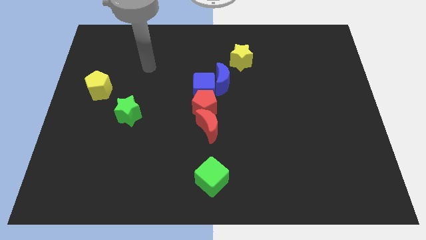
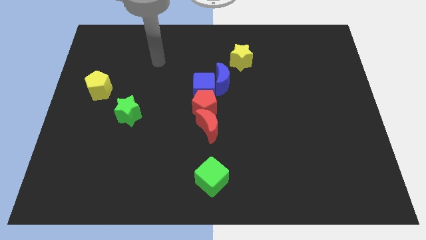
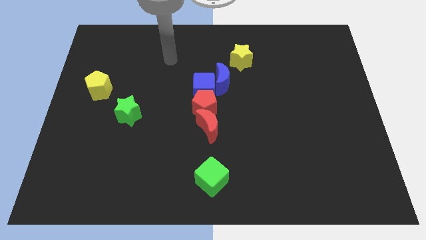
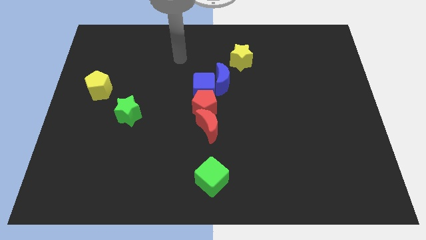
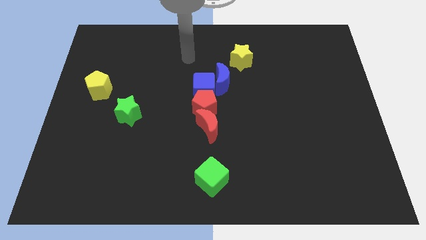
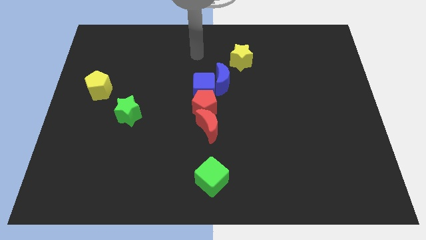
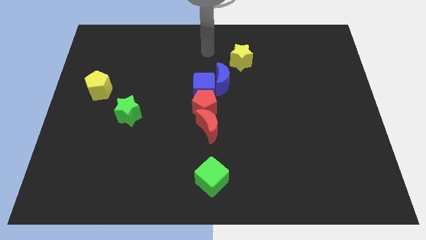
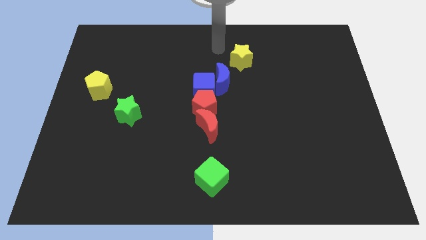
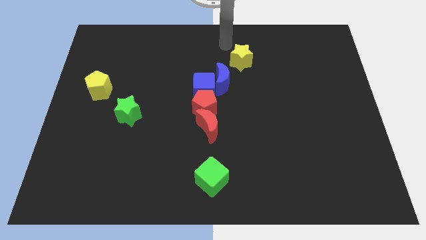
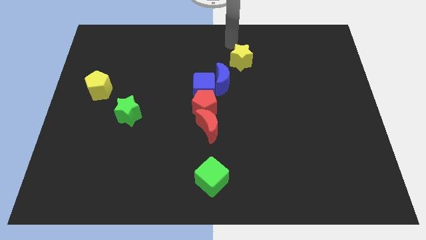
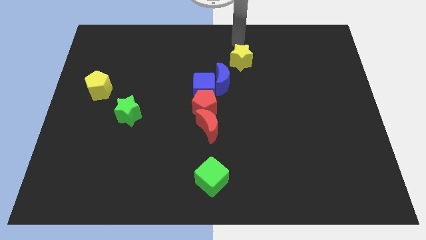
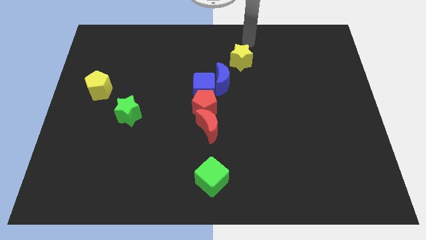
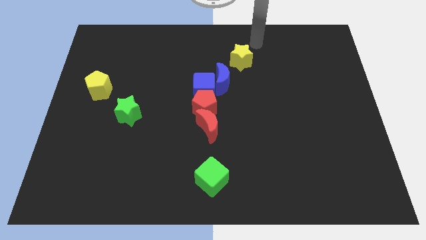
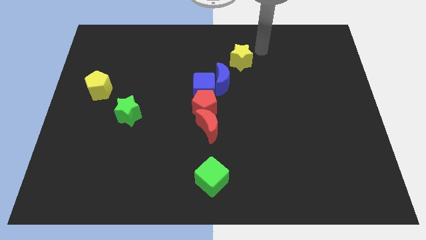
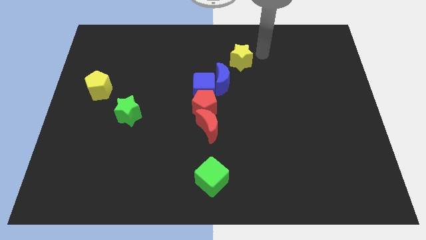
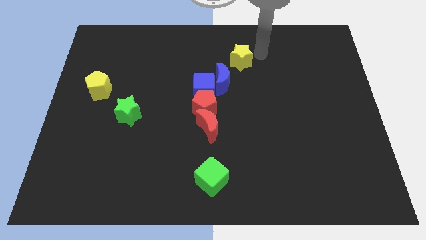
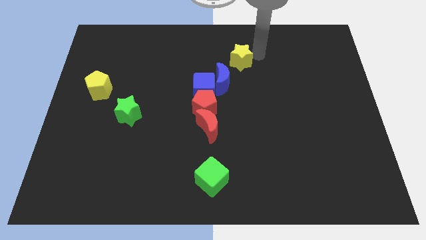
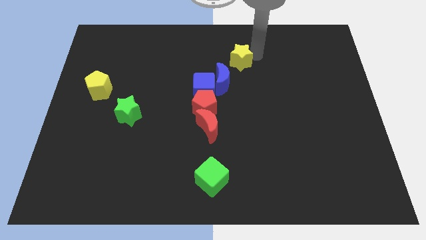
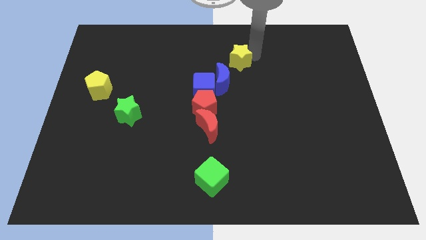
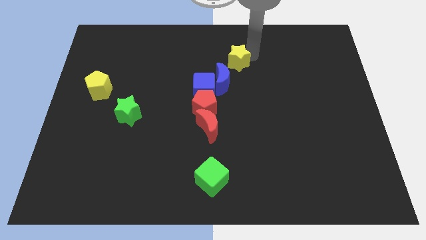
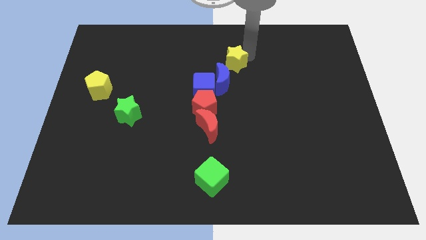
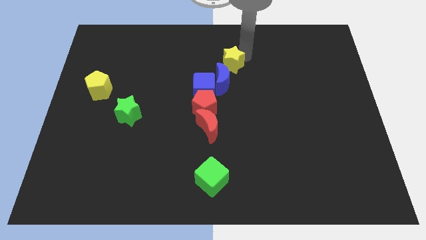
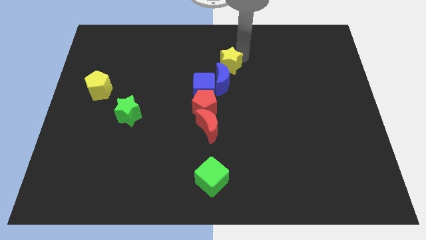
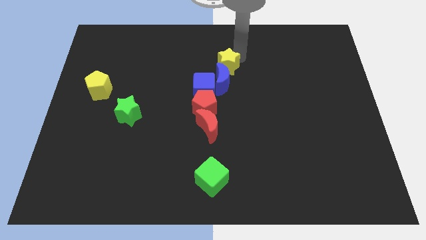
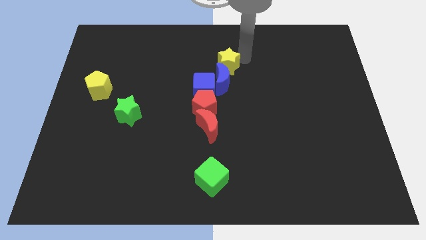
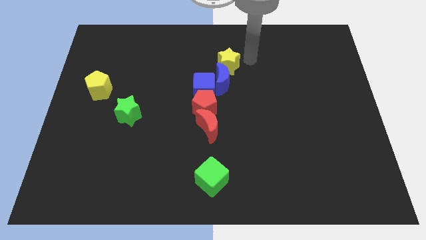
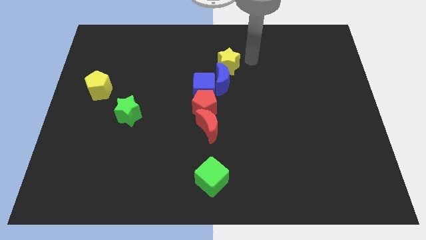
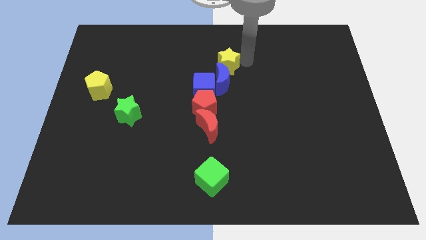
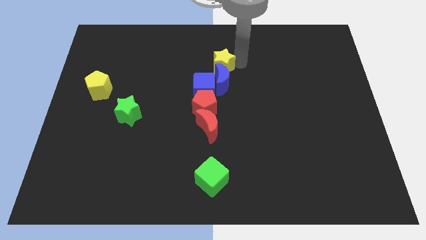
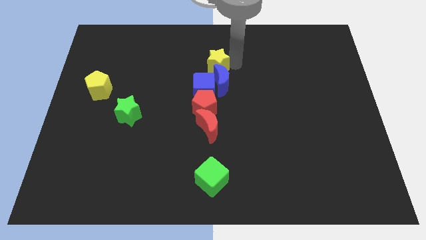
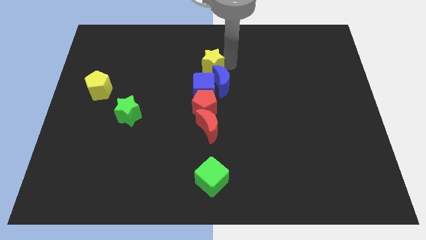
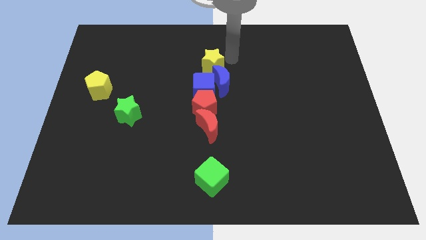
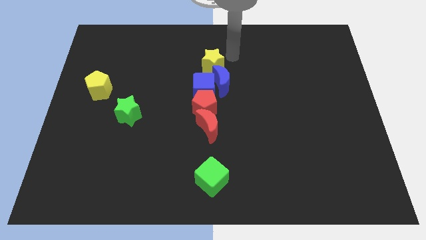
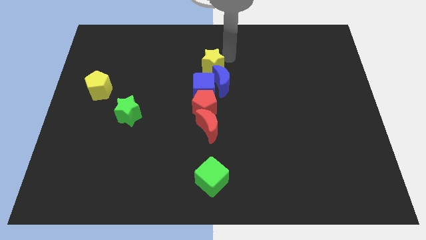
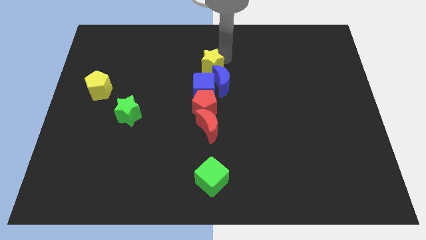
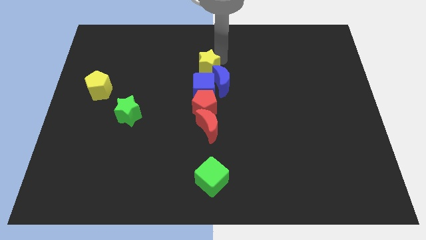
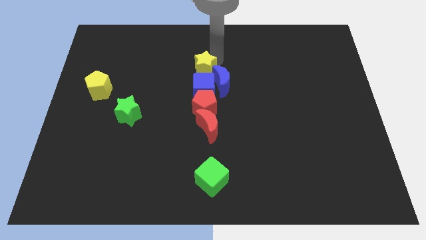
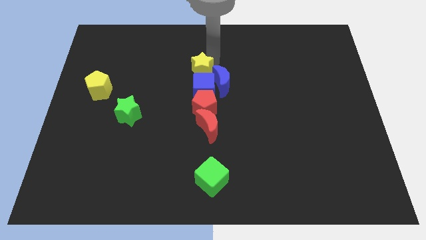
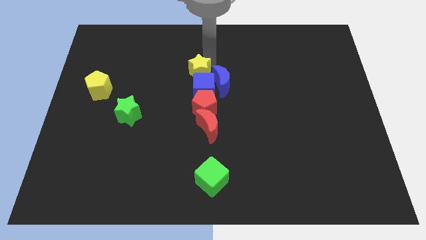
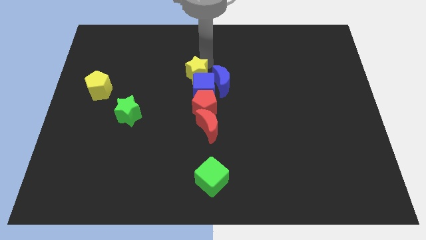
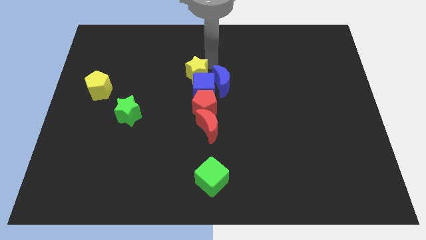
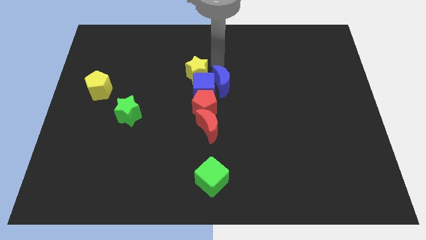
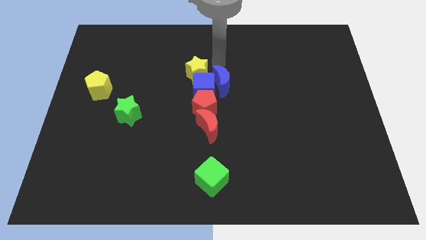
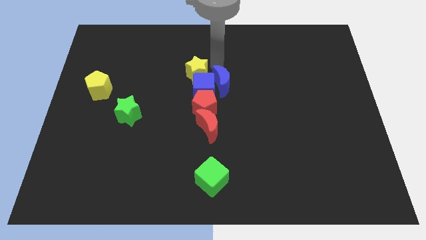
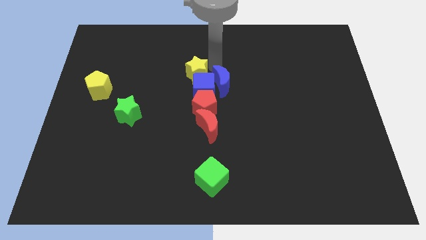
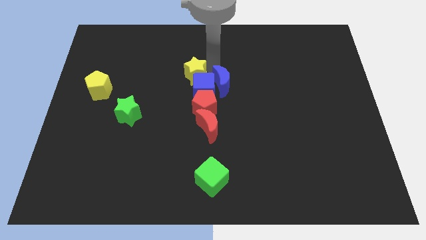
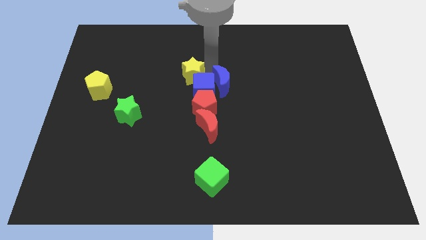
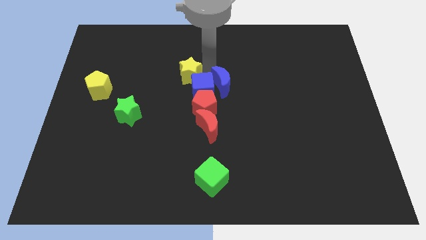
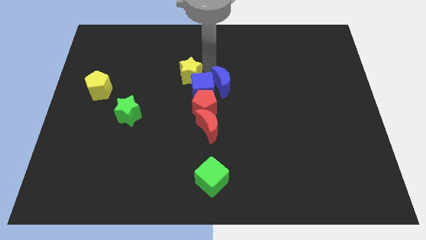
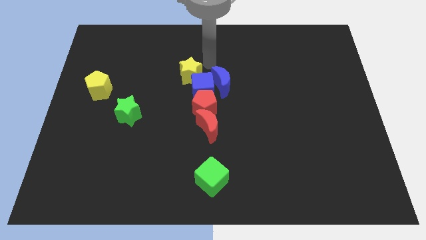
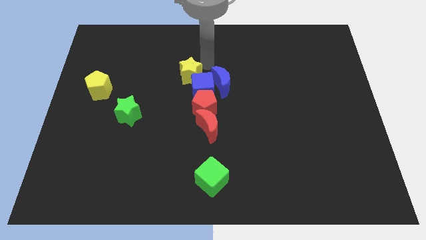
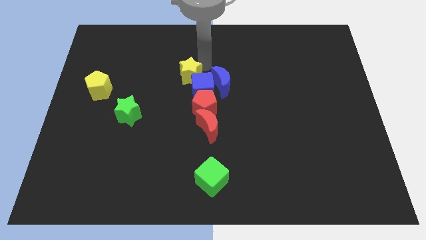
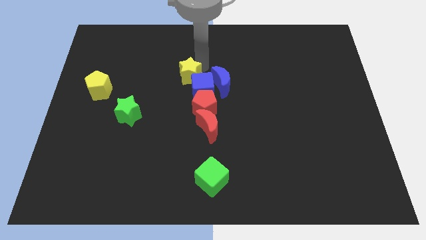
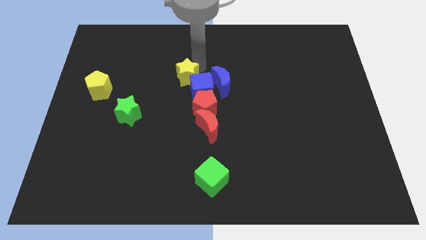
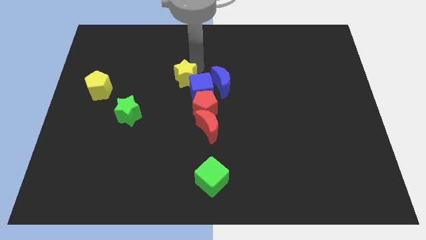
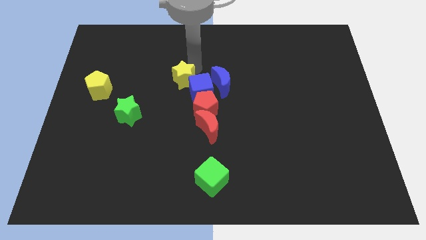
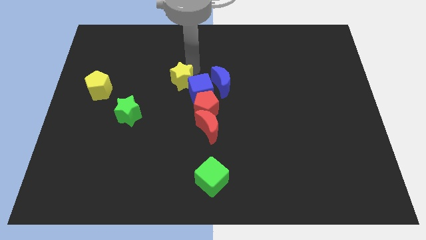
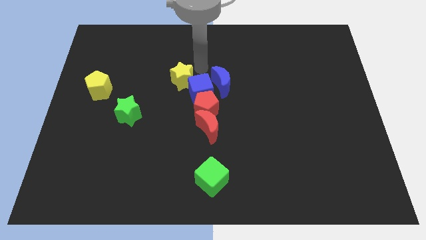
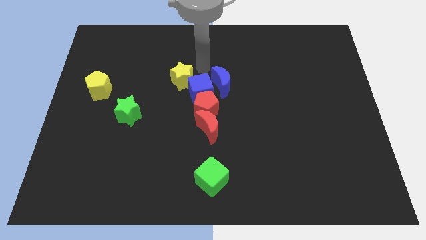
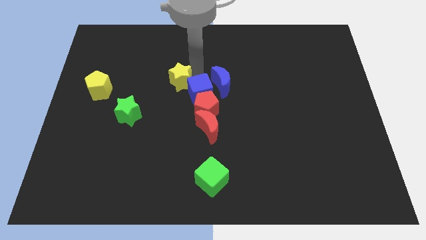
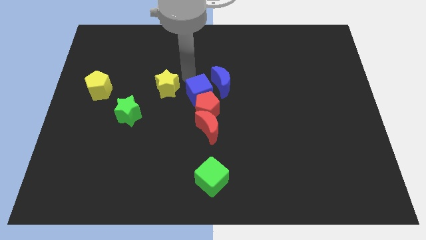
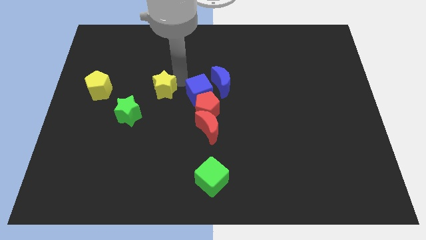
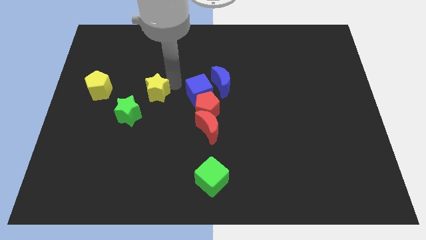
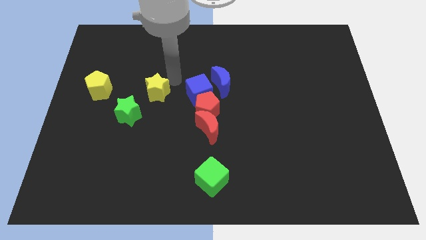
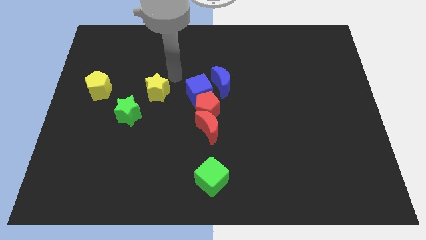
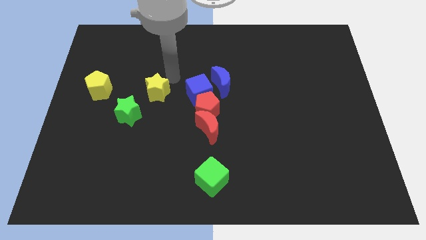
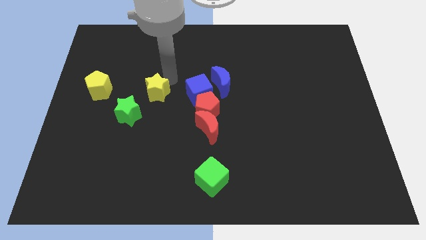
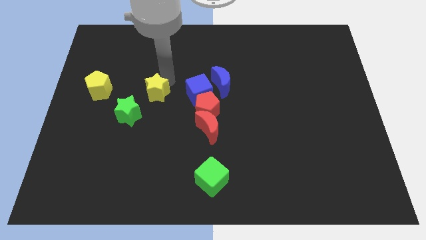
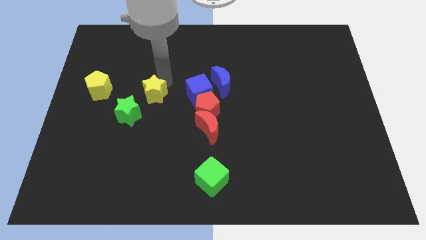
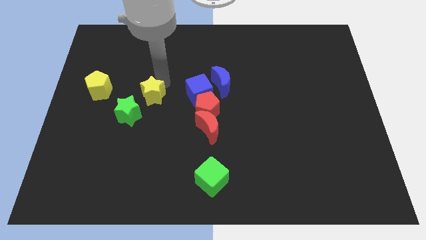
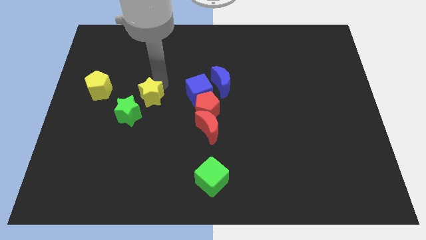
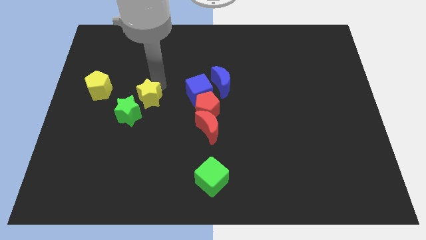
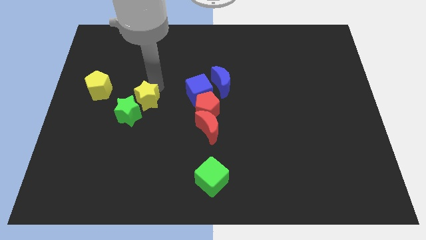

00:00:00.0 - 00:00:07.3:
push the yellow star towards the green star

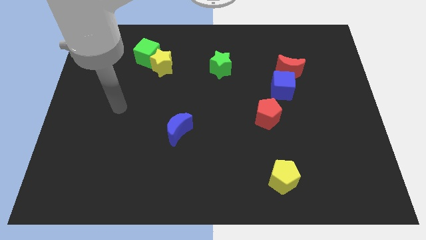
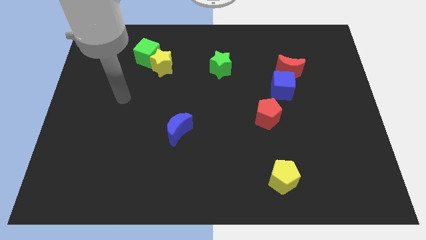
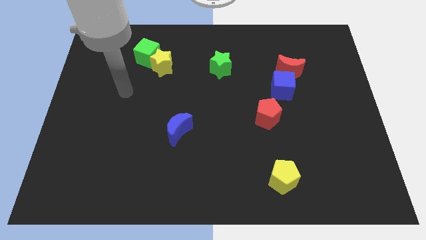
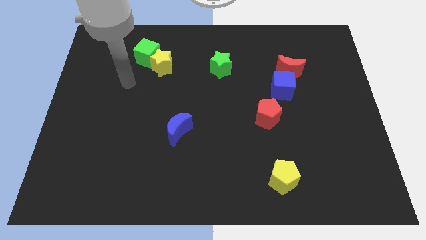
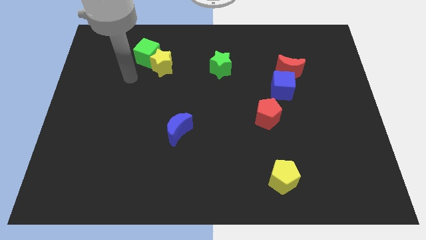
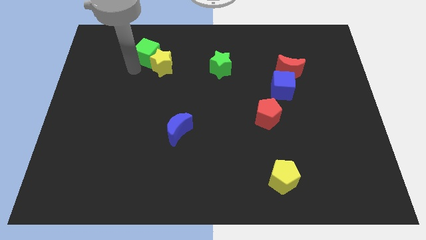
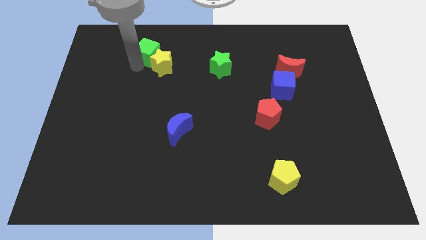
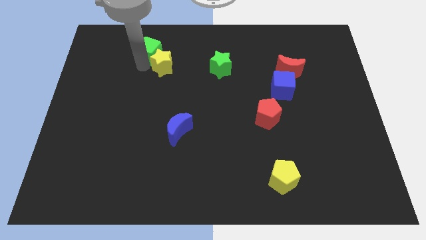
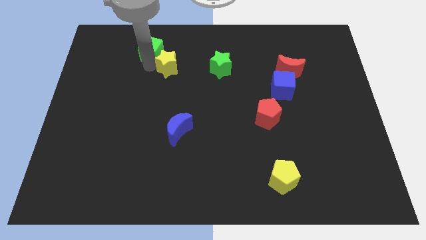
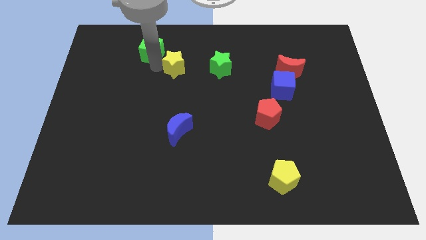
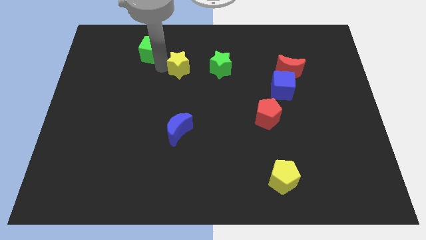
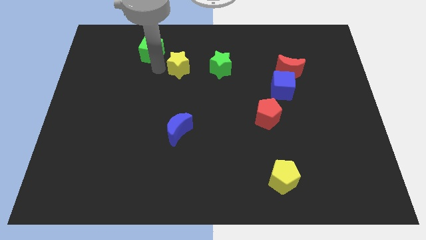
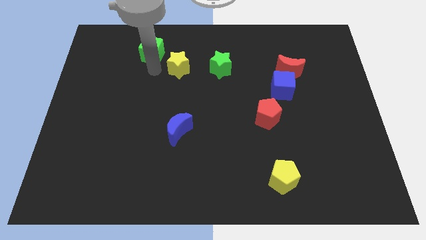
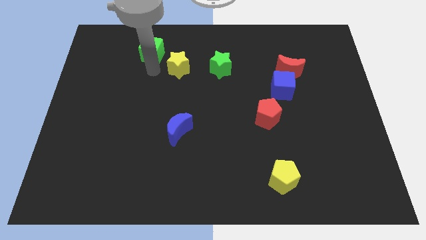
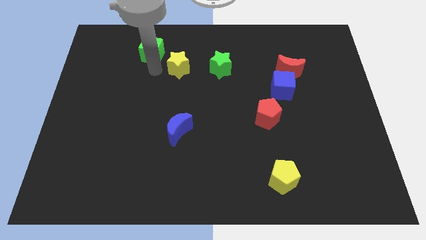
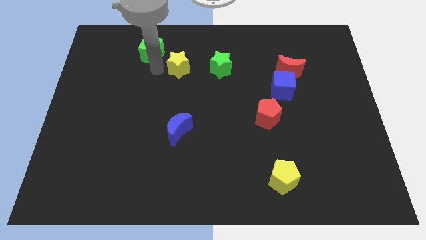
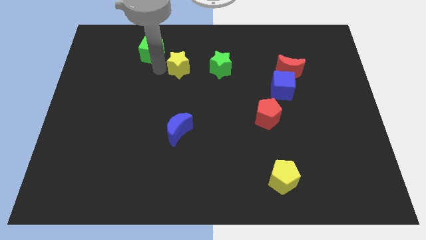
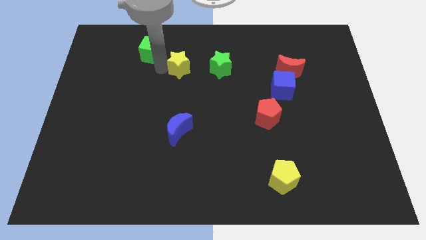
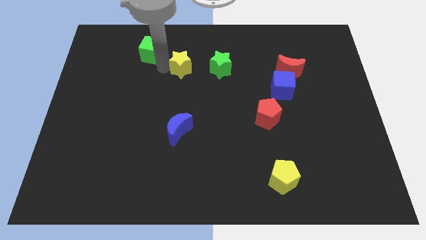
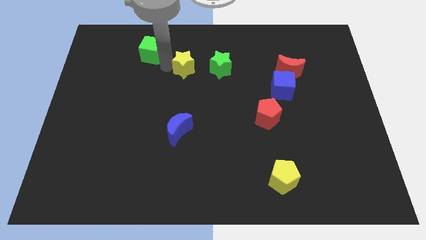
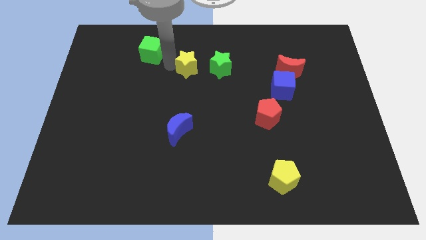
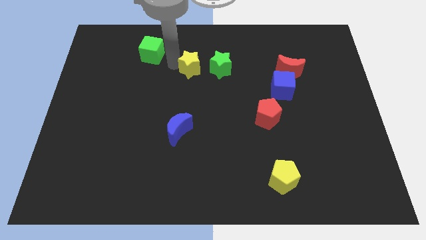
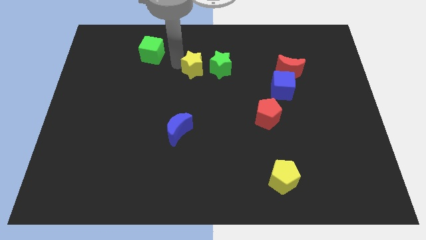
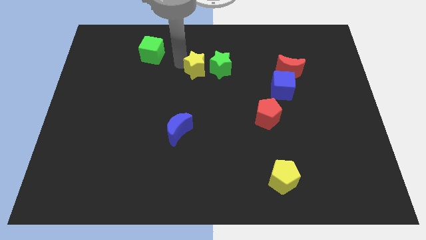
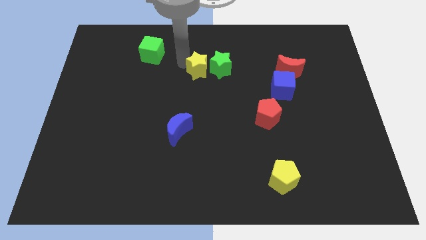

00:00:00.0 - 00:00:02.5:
push the yellow star to the green star
